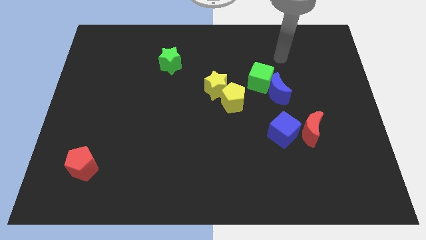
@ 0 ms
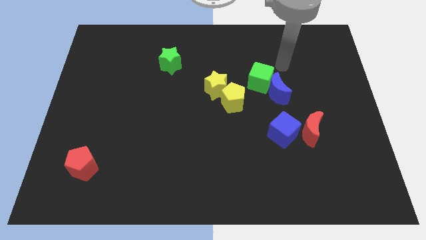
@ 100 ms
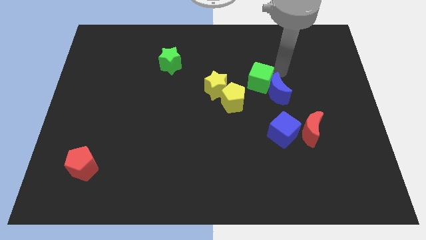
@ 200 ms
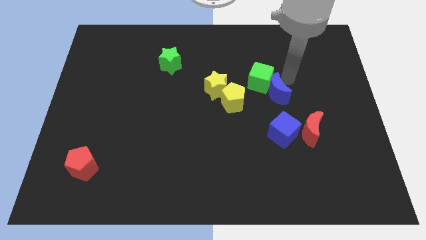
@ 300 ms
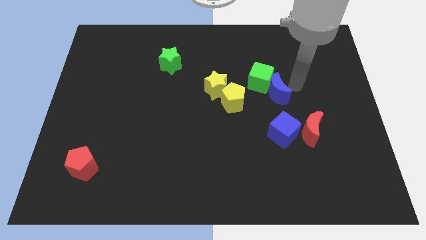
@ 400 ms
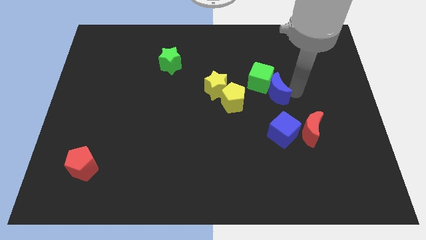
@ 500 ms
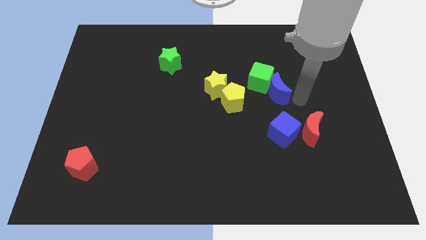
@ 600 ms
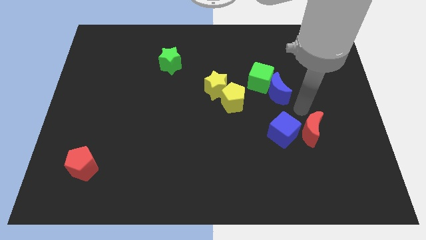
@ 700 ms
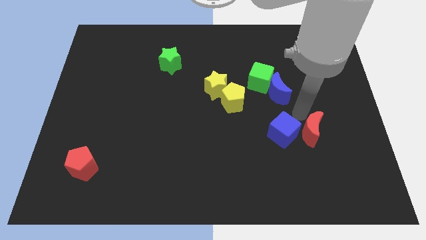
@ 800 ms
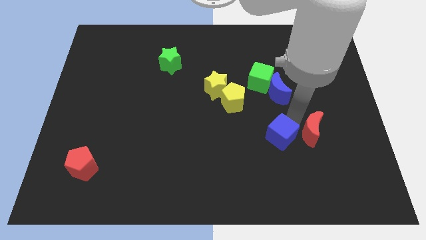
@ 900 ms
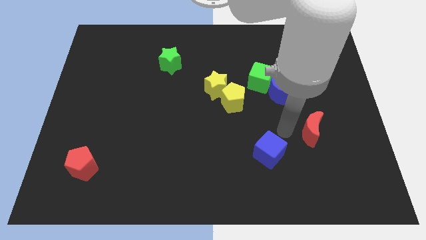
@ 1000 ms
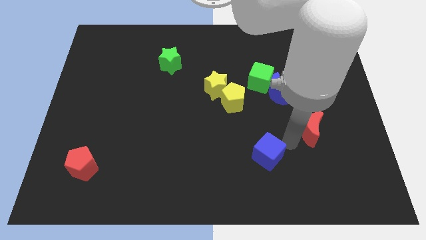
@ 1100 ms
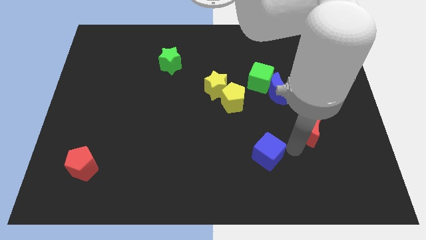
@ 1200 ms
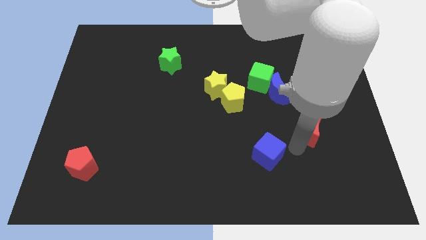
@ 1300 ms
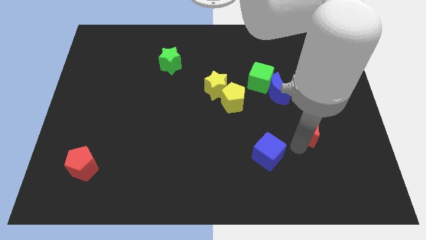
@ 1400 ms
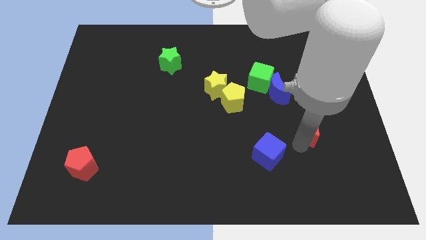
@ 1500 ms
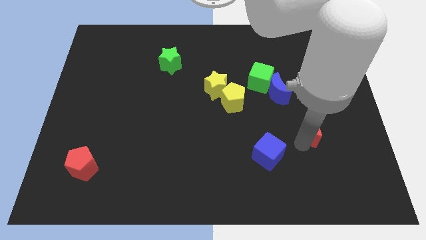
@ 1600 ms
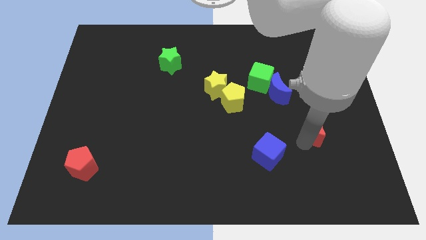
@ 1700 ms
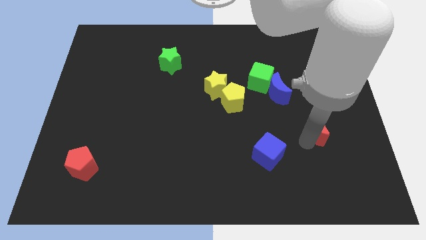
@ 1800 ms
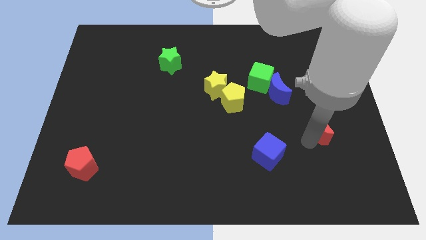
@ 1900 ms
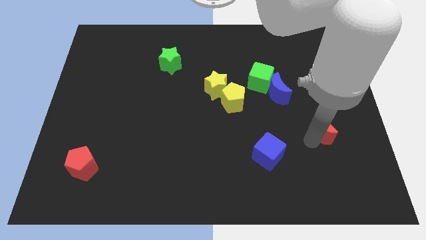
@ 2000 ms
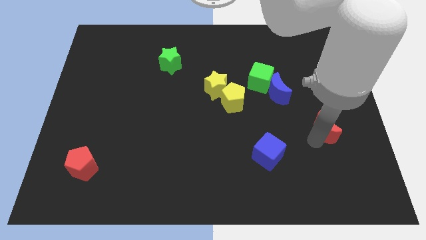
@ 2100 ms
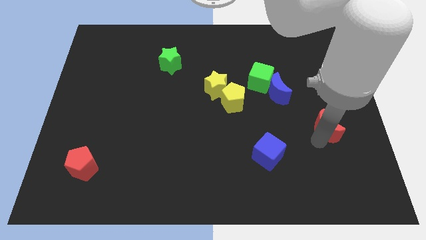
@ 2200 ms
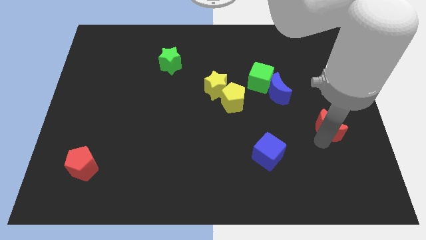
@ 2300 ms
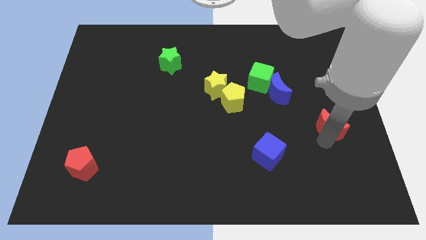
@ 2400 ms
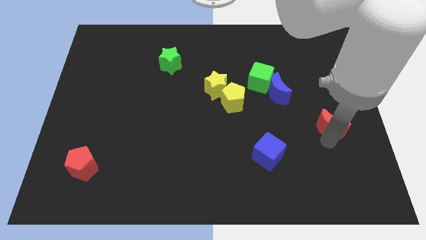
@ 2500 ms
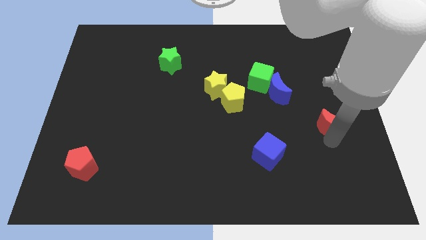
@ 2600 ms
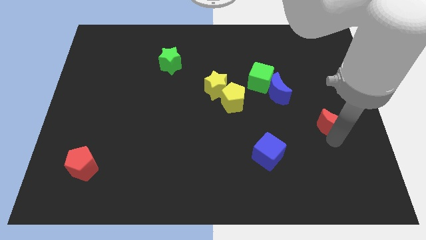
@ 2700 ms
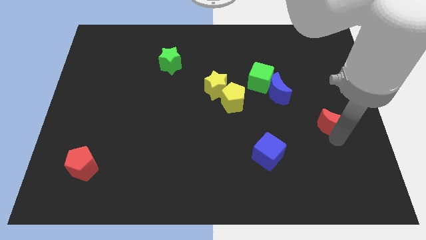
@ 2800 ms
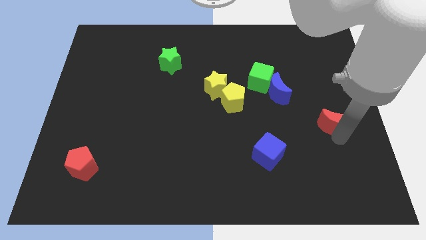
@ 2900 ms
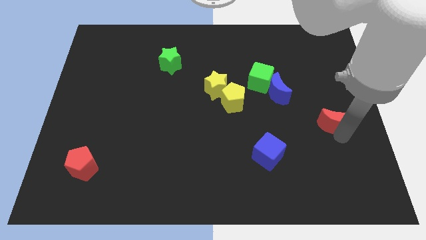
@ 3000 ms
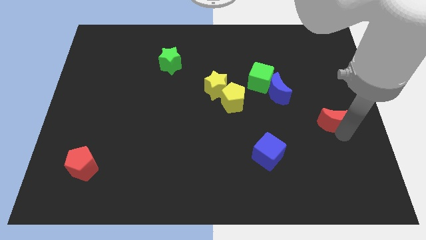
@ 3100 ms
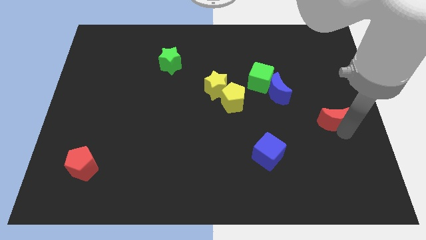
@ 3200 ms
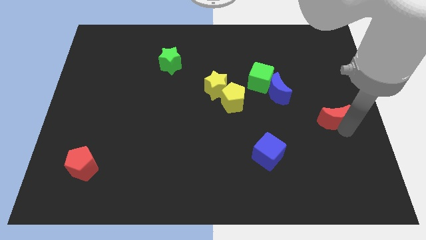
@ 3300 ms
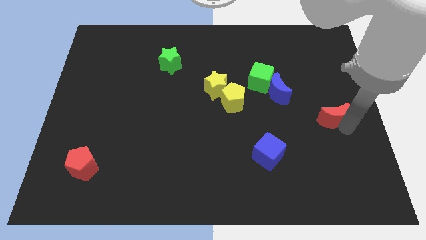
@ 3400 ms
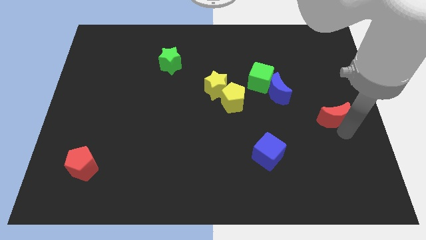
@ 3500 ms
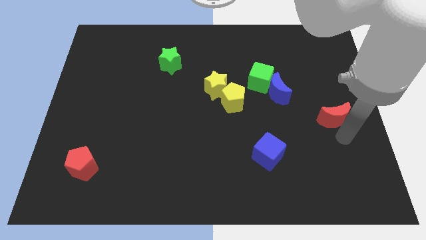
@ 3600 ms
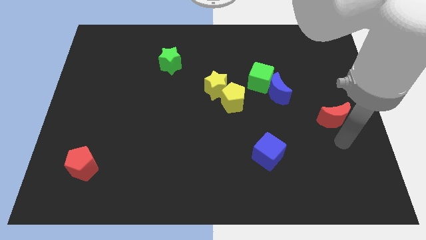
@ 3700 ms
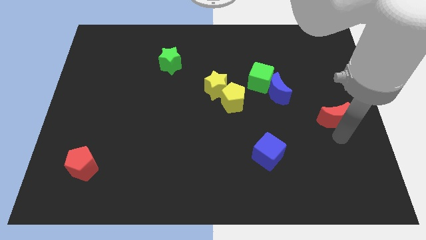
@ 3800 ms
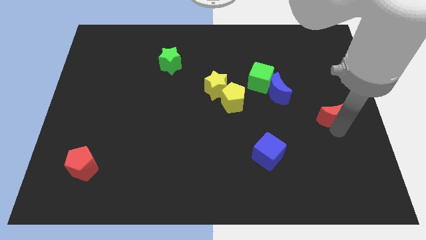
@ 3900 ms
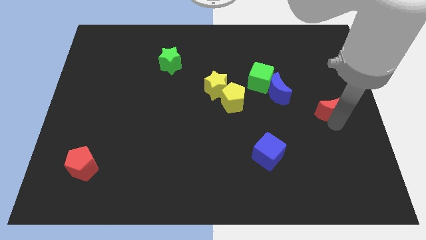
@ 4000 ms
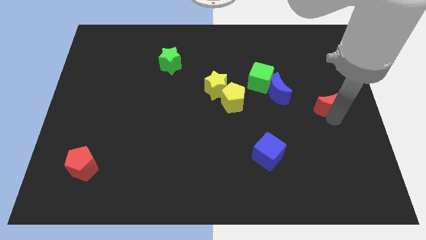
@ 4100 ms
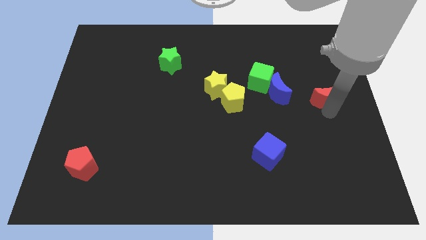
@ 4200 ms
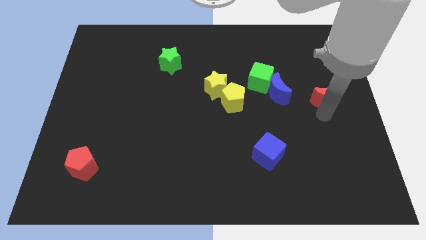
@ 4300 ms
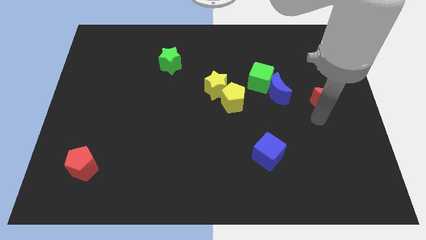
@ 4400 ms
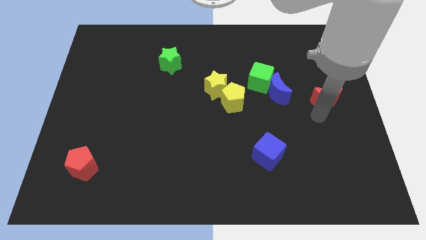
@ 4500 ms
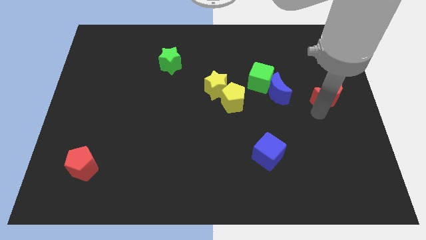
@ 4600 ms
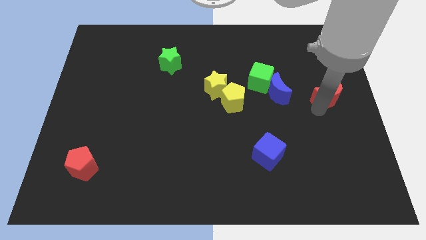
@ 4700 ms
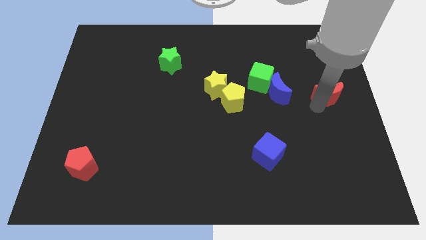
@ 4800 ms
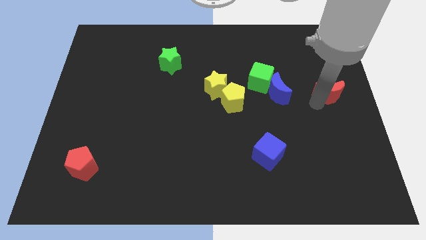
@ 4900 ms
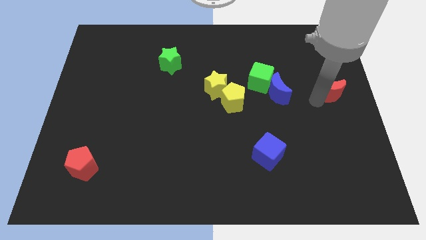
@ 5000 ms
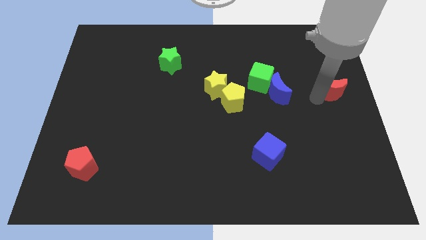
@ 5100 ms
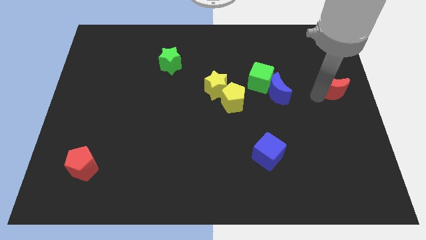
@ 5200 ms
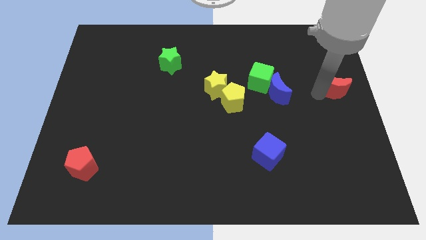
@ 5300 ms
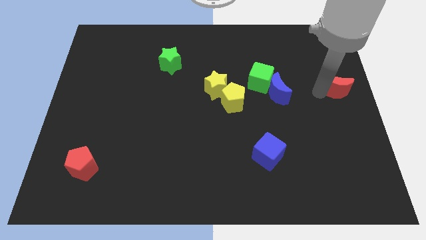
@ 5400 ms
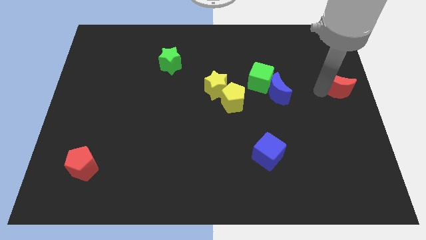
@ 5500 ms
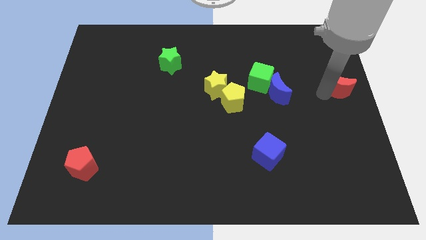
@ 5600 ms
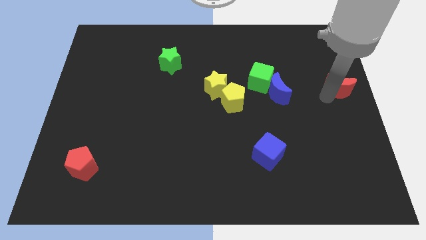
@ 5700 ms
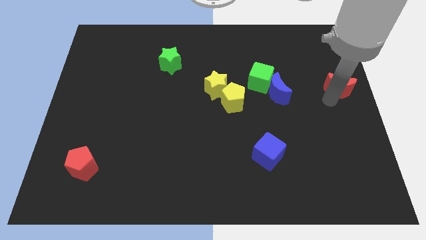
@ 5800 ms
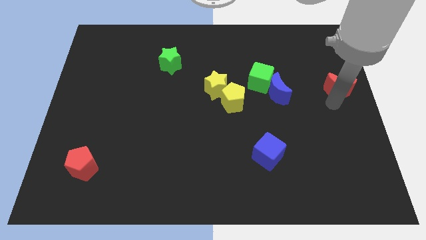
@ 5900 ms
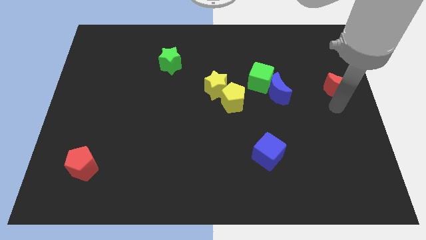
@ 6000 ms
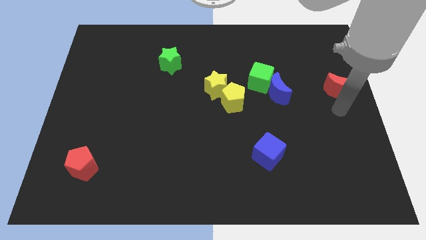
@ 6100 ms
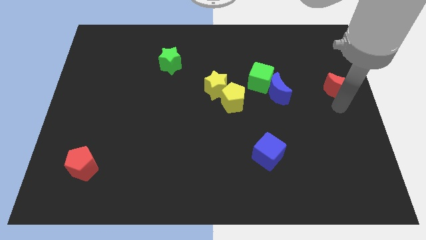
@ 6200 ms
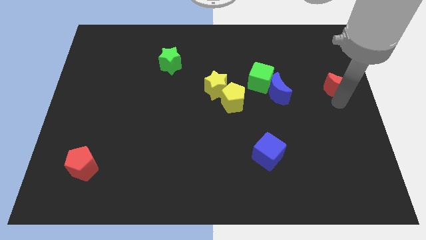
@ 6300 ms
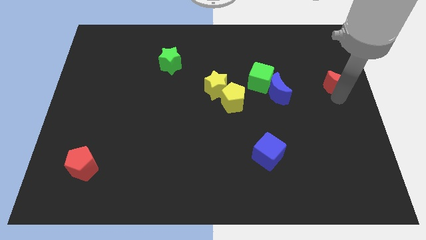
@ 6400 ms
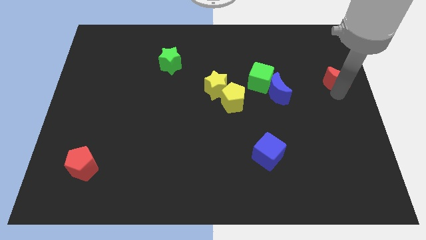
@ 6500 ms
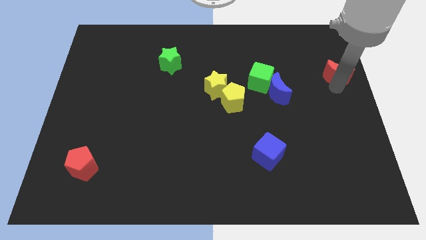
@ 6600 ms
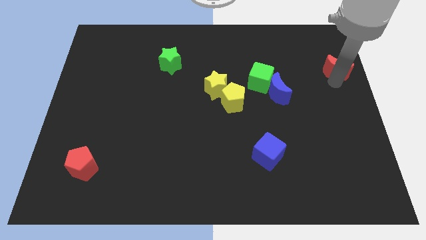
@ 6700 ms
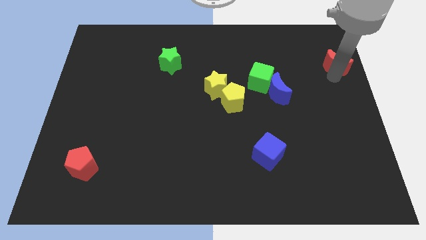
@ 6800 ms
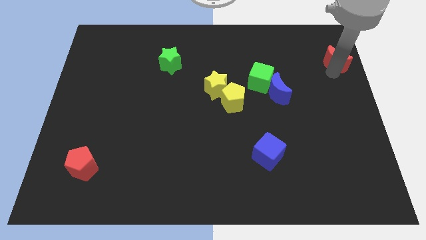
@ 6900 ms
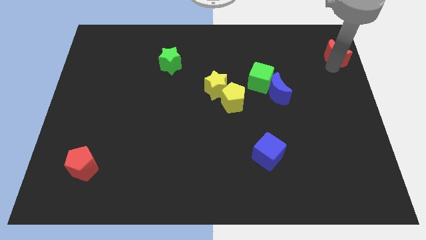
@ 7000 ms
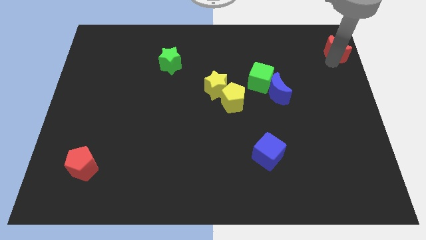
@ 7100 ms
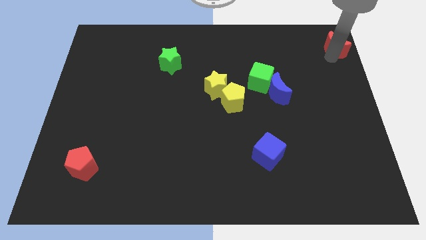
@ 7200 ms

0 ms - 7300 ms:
move the red moon to the top right
